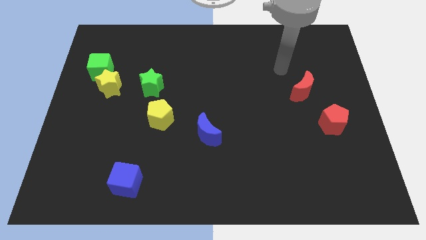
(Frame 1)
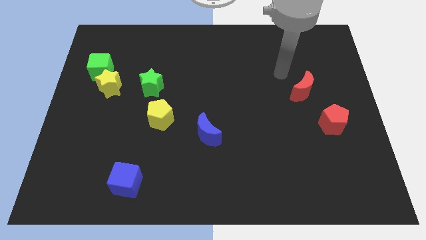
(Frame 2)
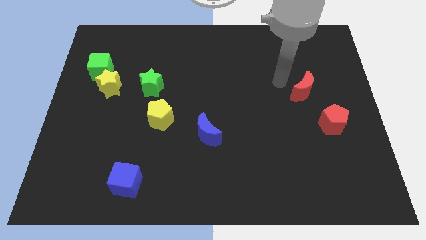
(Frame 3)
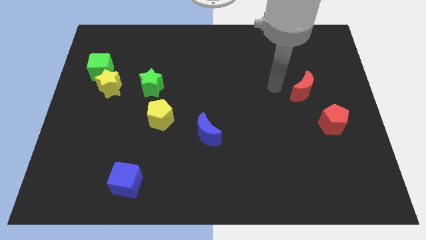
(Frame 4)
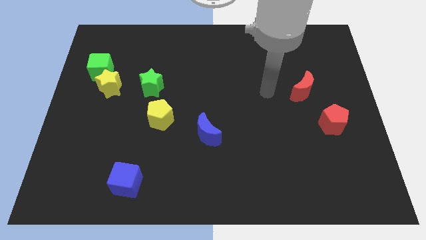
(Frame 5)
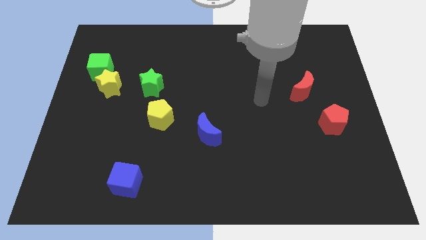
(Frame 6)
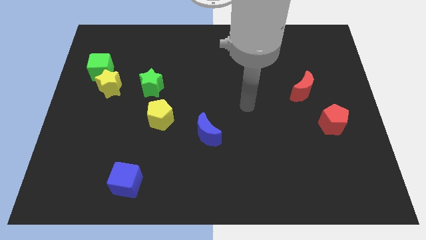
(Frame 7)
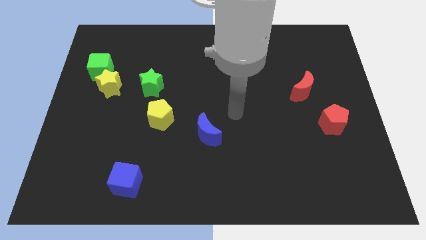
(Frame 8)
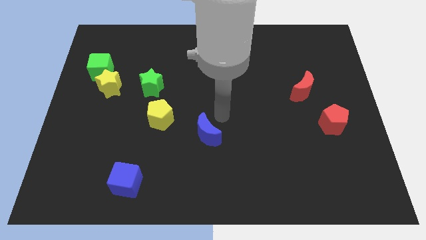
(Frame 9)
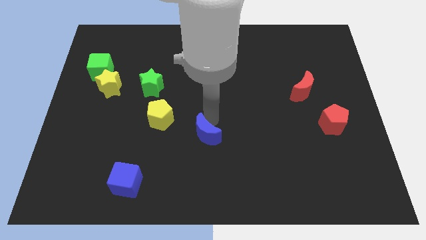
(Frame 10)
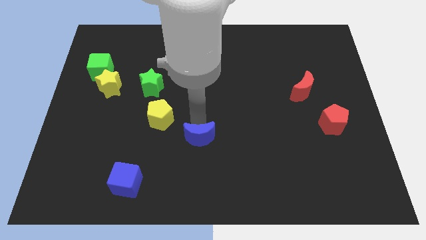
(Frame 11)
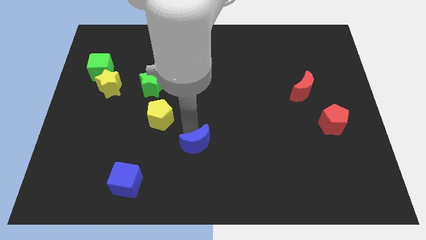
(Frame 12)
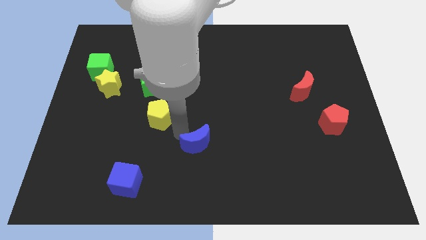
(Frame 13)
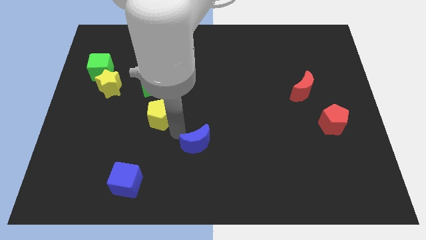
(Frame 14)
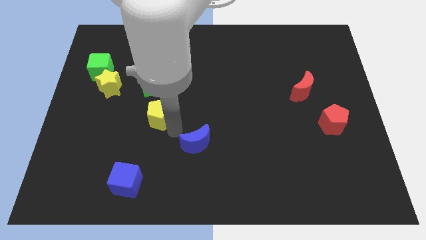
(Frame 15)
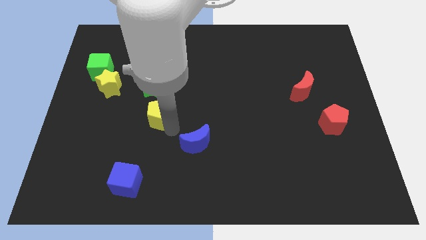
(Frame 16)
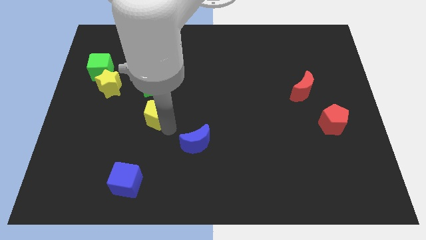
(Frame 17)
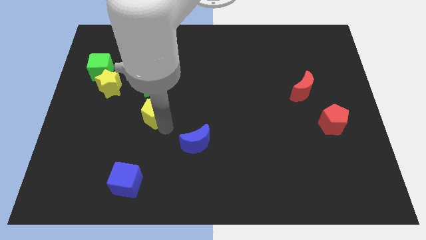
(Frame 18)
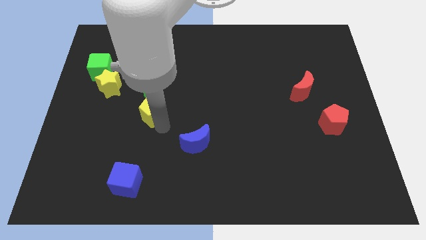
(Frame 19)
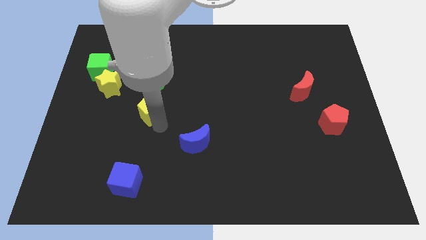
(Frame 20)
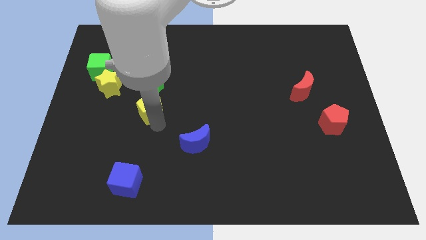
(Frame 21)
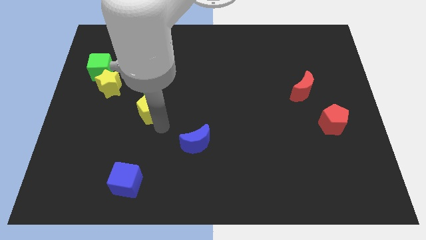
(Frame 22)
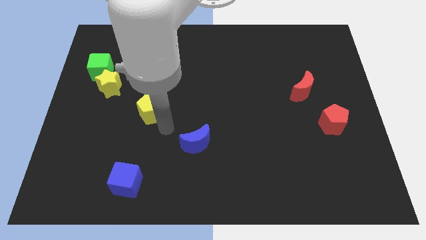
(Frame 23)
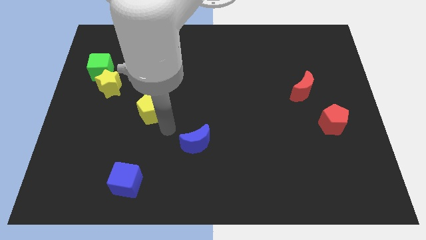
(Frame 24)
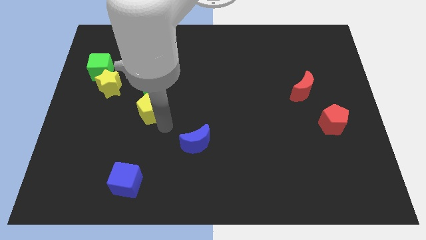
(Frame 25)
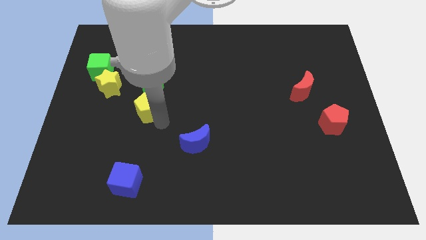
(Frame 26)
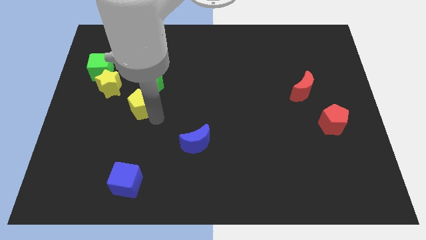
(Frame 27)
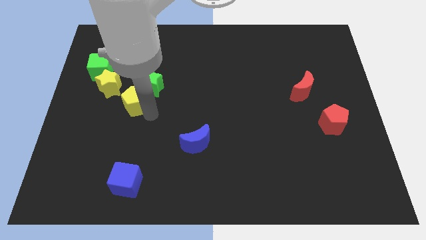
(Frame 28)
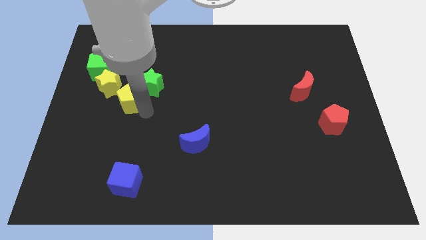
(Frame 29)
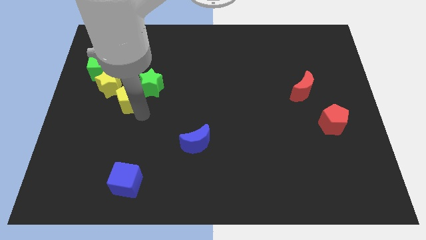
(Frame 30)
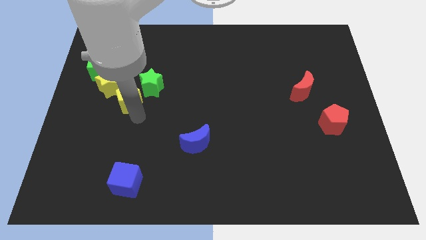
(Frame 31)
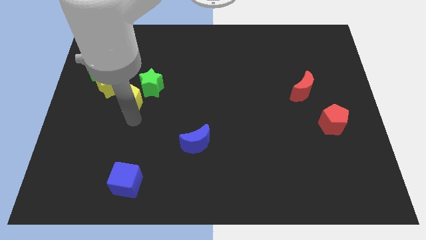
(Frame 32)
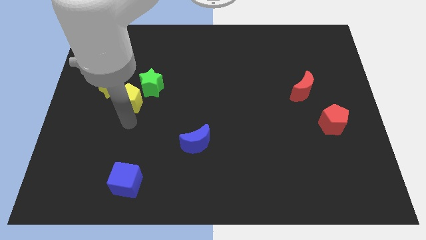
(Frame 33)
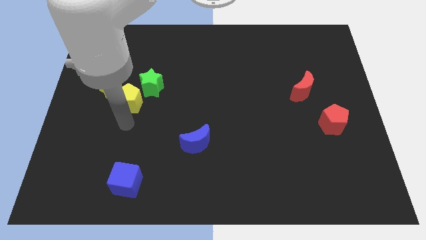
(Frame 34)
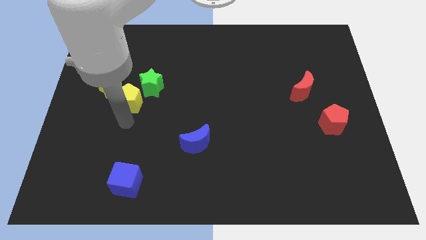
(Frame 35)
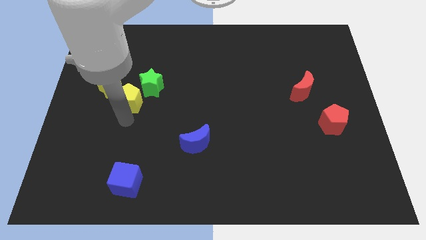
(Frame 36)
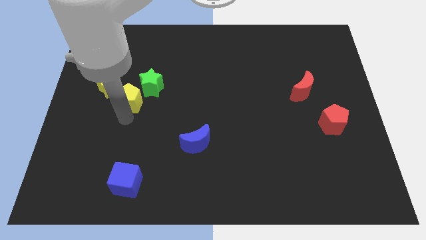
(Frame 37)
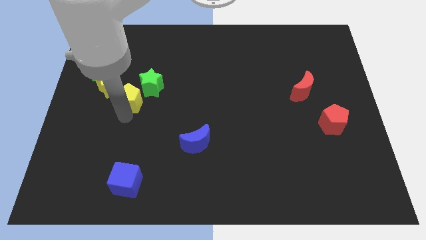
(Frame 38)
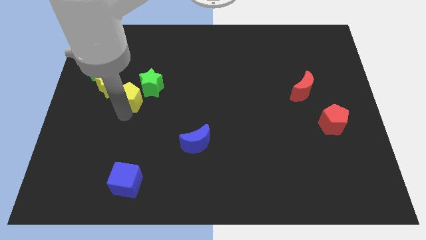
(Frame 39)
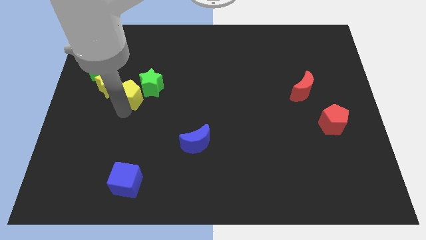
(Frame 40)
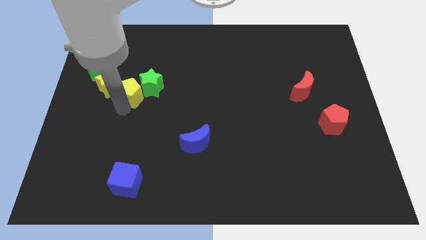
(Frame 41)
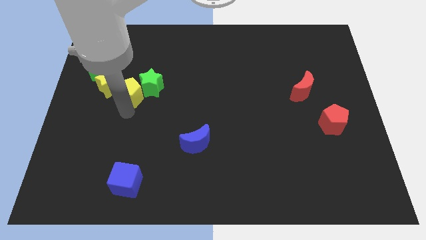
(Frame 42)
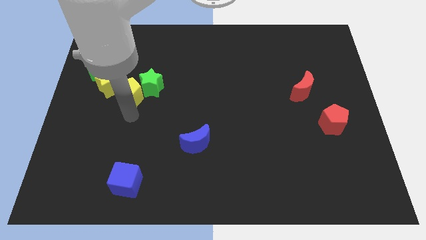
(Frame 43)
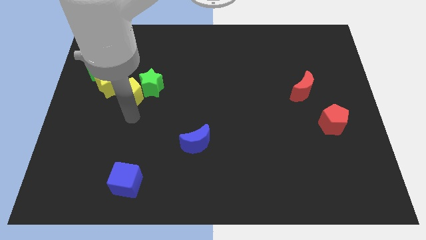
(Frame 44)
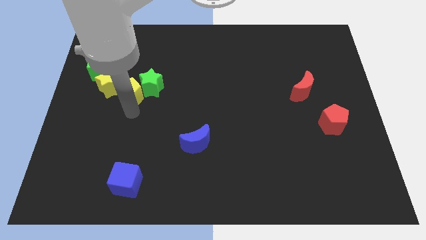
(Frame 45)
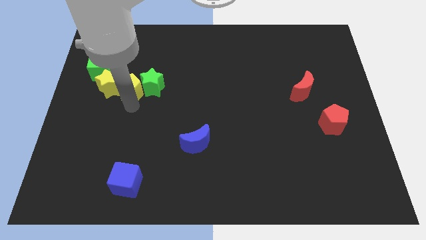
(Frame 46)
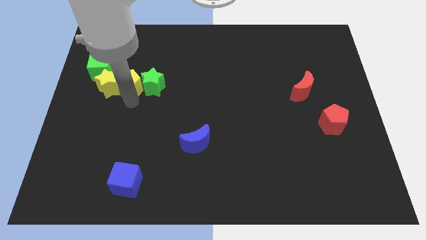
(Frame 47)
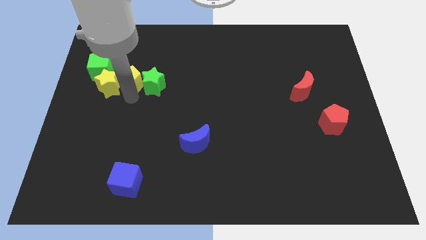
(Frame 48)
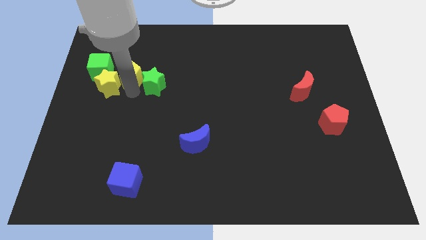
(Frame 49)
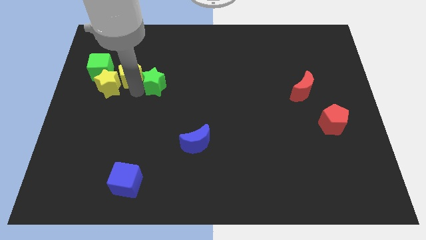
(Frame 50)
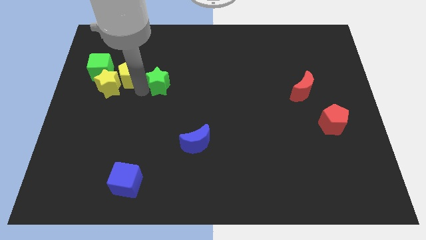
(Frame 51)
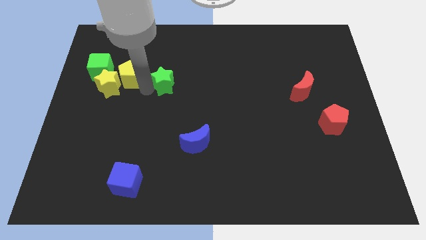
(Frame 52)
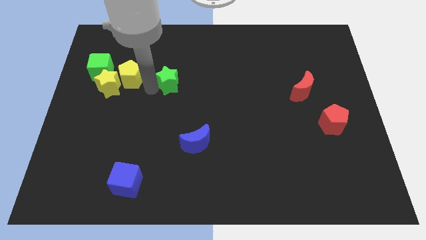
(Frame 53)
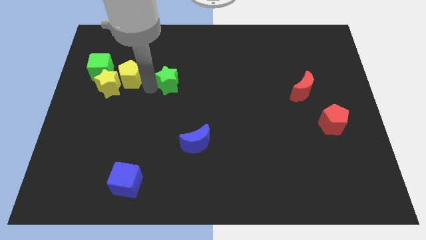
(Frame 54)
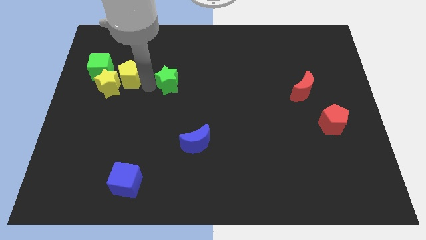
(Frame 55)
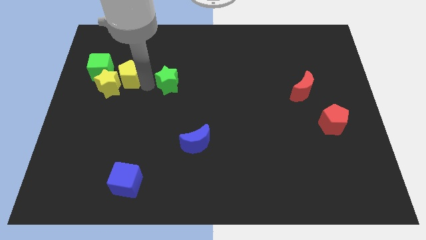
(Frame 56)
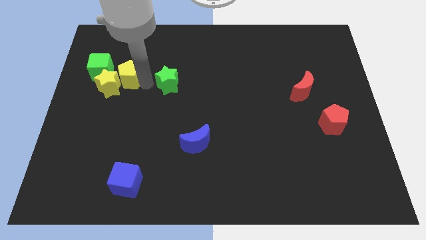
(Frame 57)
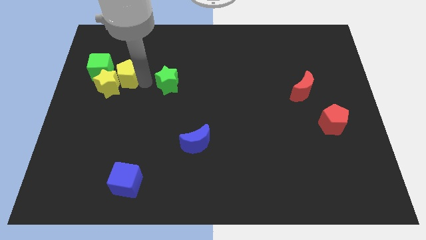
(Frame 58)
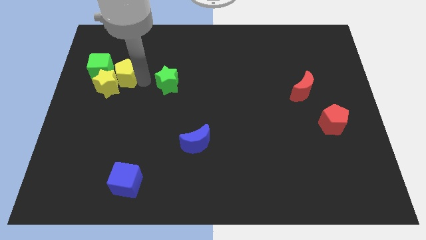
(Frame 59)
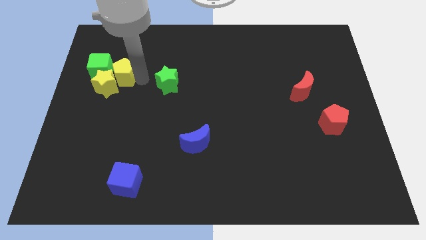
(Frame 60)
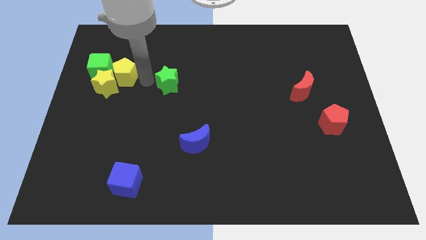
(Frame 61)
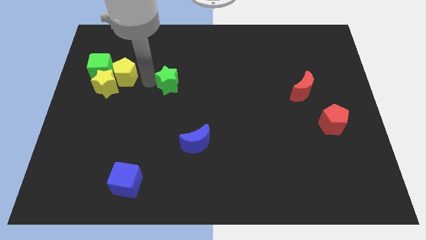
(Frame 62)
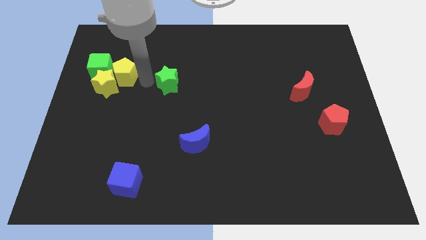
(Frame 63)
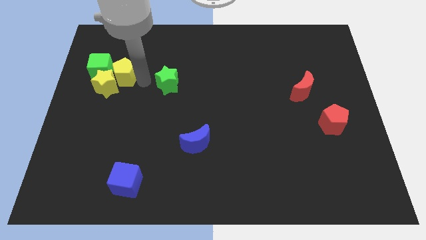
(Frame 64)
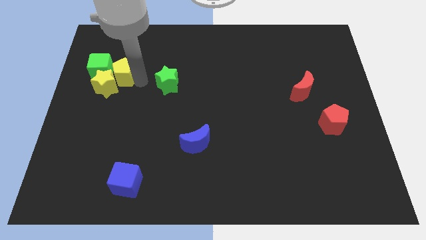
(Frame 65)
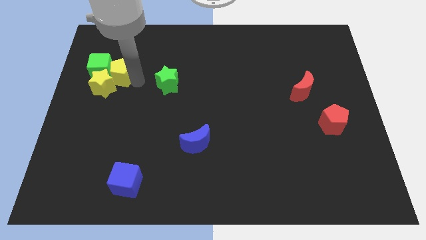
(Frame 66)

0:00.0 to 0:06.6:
move the yellow pentagon close to the green cube

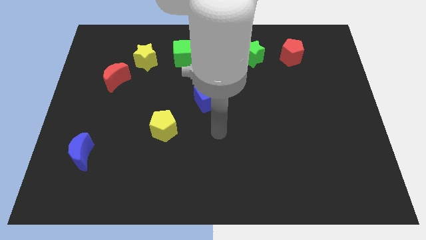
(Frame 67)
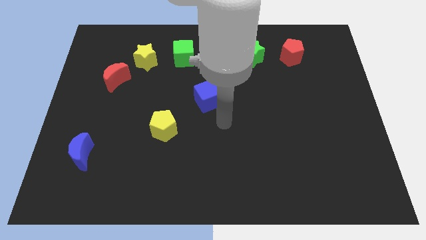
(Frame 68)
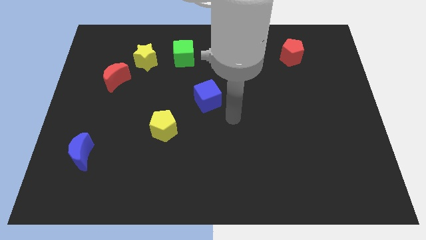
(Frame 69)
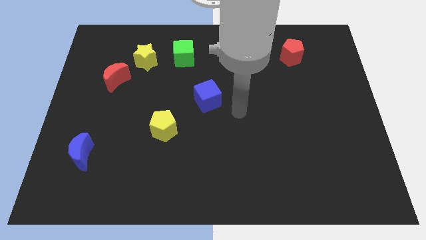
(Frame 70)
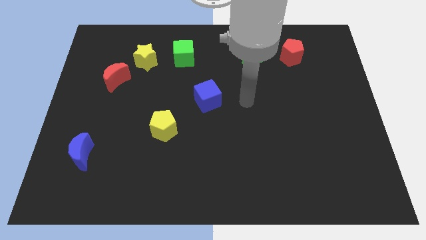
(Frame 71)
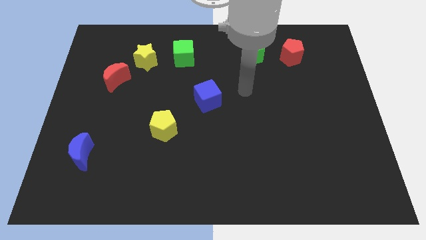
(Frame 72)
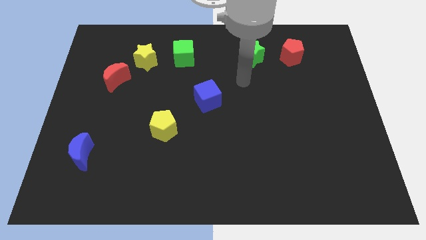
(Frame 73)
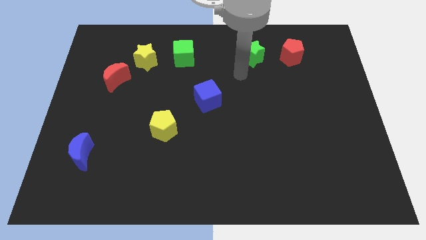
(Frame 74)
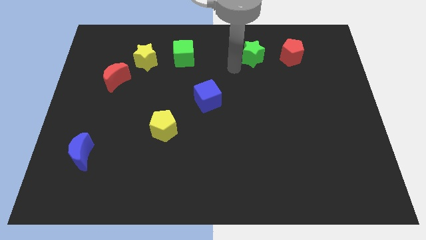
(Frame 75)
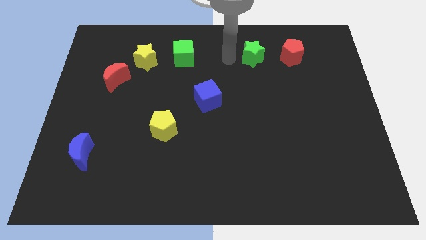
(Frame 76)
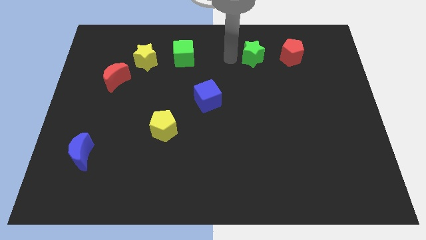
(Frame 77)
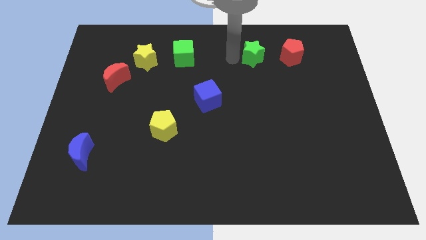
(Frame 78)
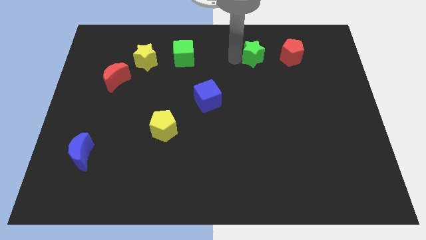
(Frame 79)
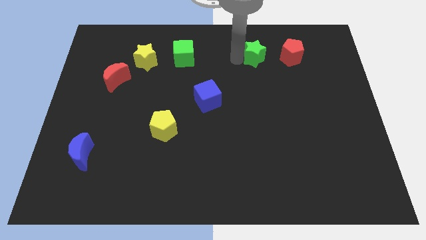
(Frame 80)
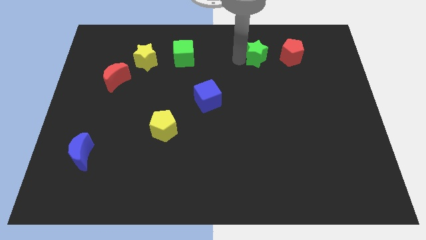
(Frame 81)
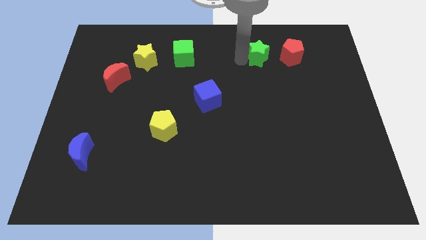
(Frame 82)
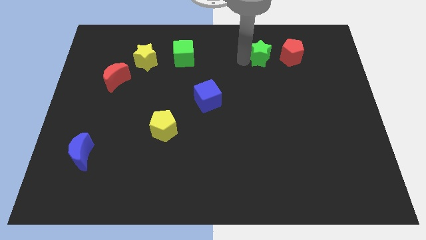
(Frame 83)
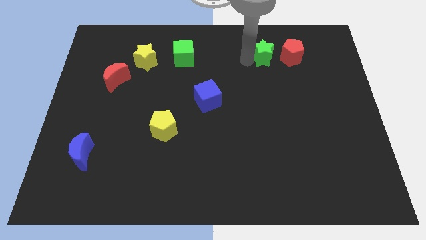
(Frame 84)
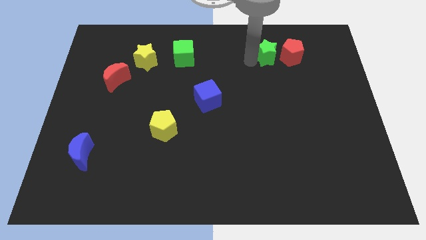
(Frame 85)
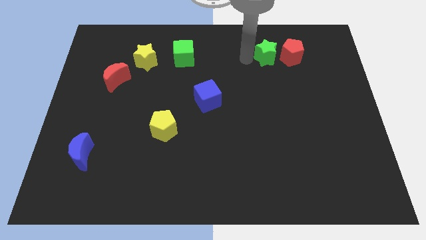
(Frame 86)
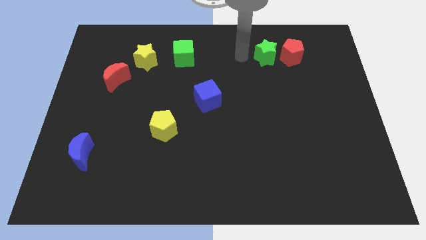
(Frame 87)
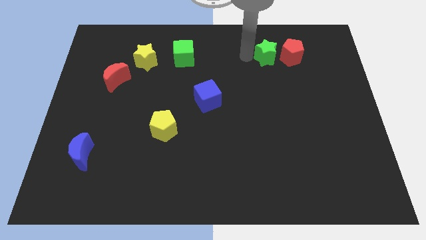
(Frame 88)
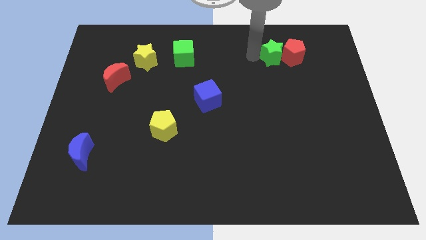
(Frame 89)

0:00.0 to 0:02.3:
put the green star next to the red pentagon
